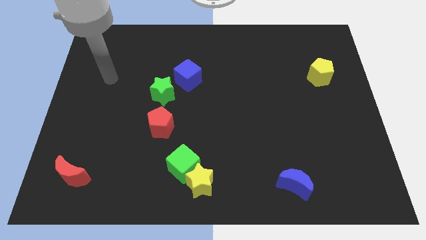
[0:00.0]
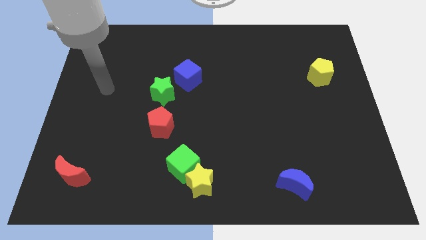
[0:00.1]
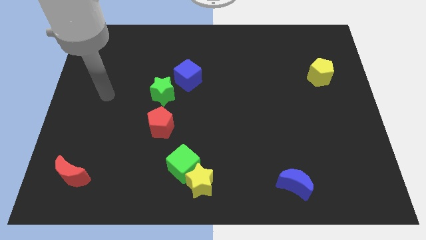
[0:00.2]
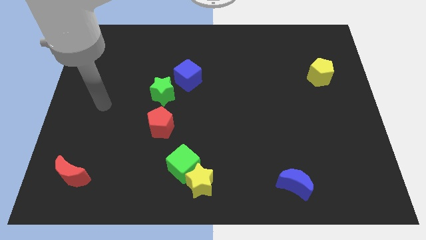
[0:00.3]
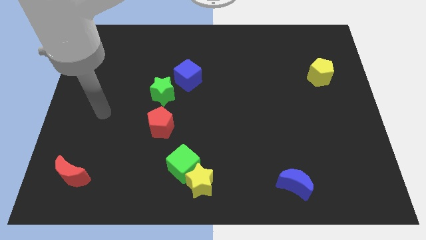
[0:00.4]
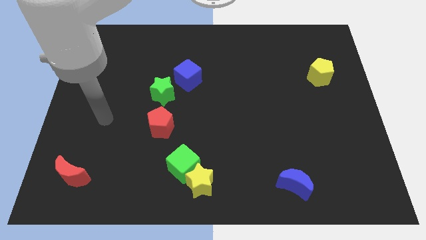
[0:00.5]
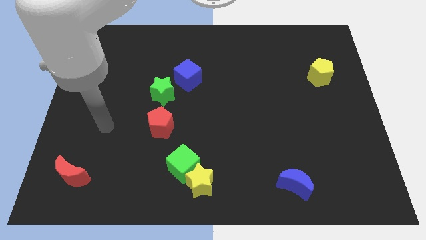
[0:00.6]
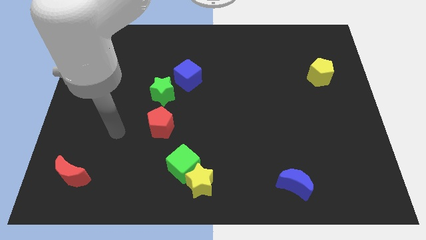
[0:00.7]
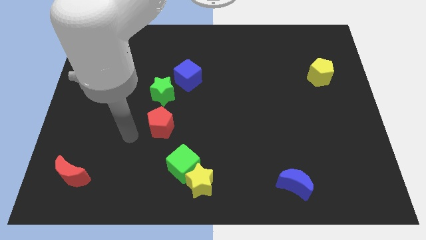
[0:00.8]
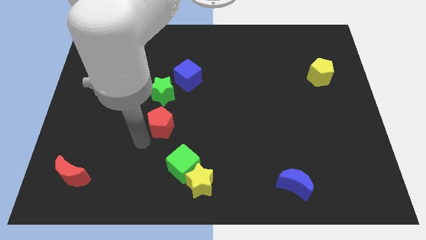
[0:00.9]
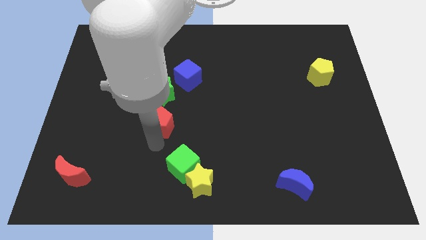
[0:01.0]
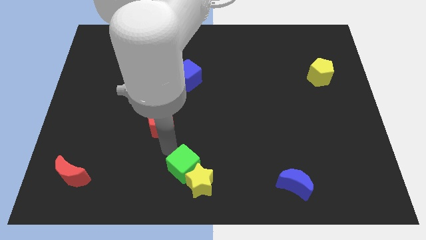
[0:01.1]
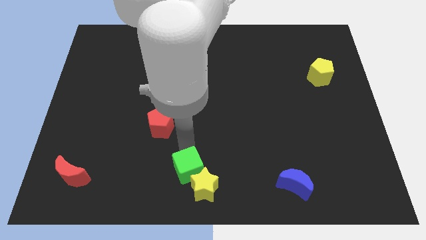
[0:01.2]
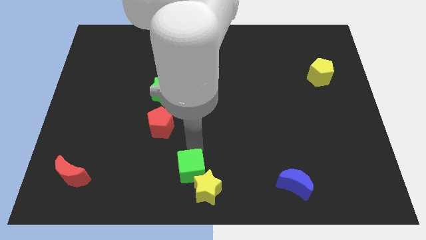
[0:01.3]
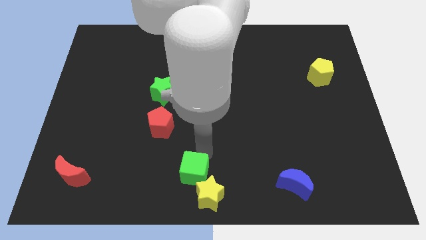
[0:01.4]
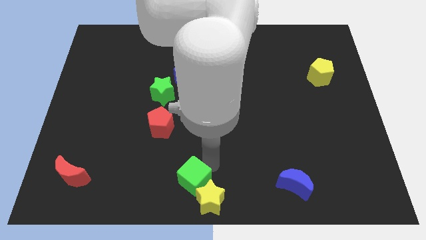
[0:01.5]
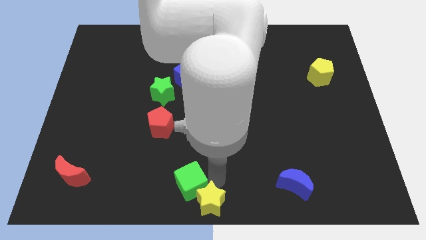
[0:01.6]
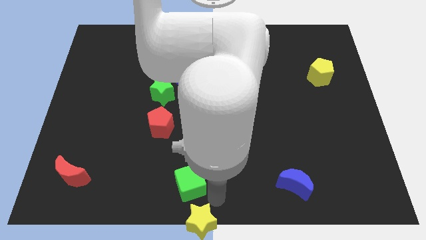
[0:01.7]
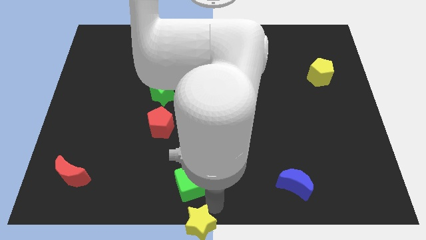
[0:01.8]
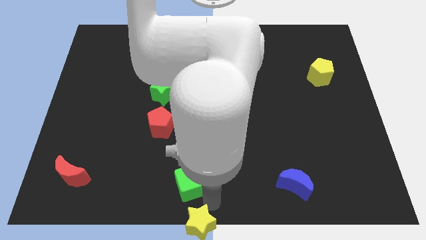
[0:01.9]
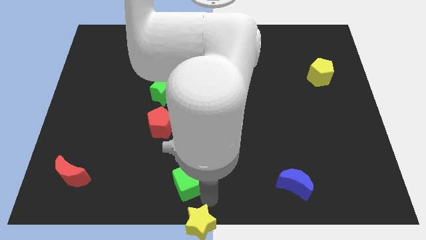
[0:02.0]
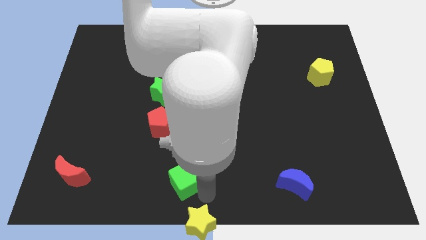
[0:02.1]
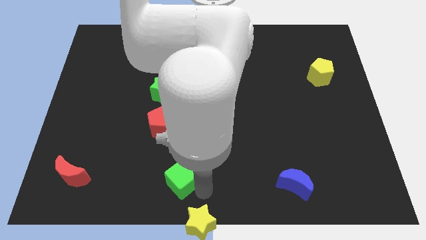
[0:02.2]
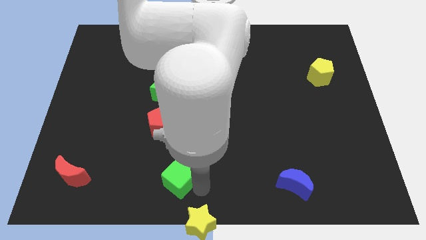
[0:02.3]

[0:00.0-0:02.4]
pull the green cube apart from the yellow star

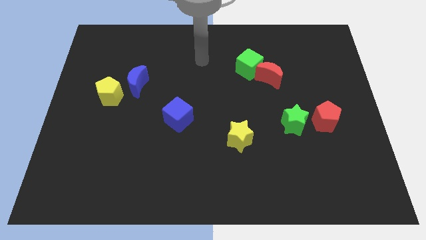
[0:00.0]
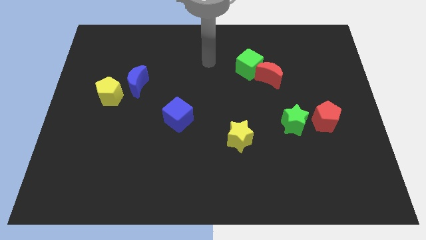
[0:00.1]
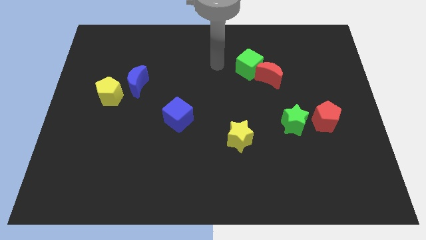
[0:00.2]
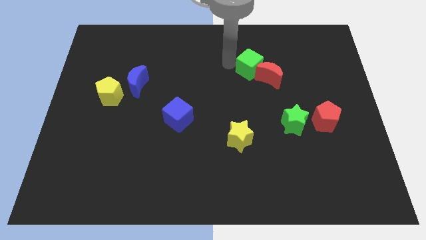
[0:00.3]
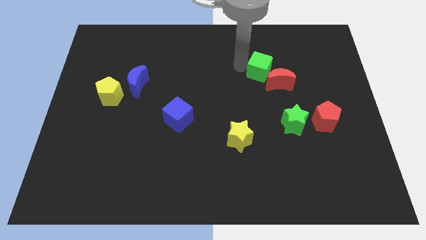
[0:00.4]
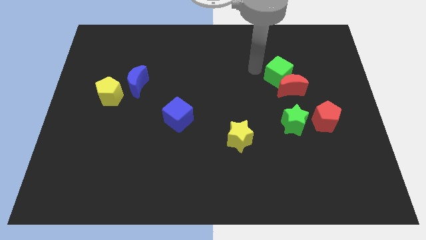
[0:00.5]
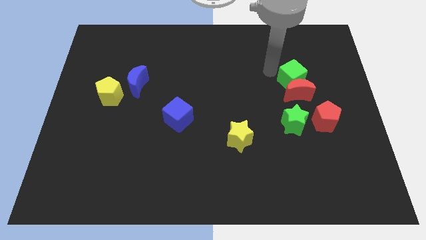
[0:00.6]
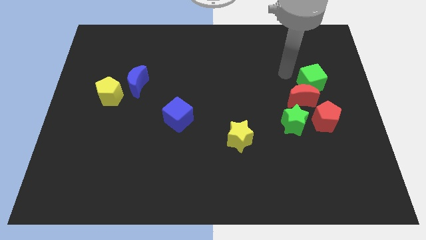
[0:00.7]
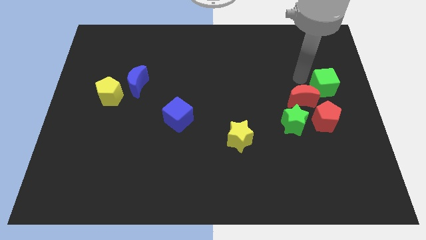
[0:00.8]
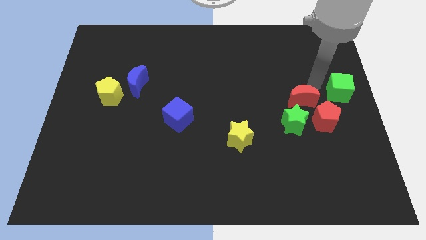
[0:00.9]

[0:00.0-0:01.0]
separate the red moon from the green cube

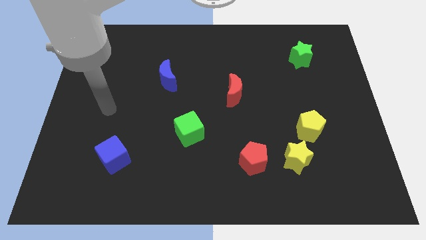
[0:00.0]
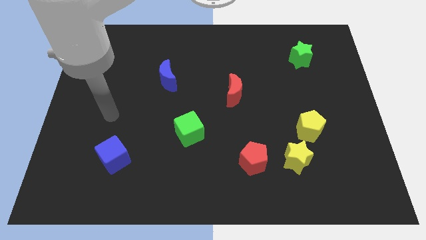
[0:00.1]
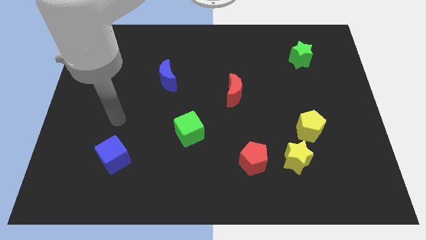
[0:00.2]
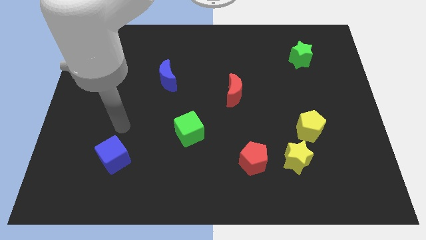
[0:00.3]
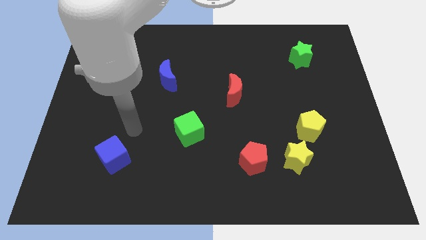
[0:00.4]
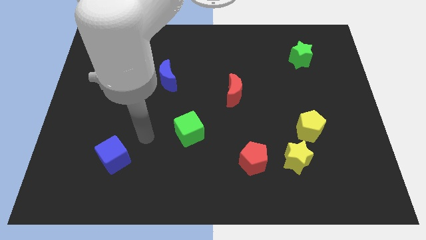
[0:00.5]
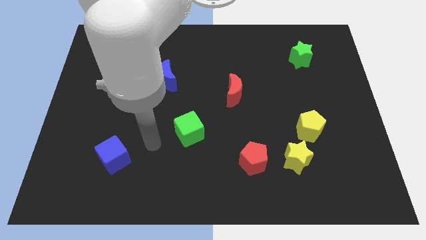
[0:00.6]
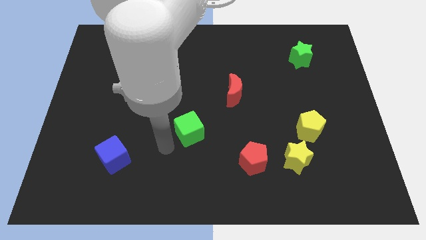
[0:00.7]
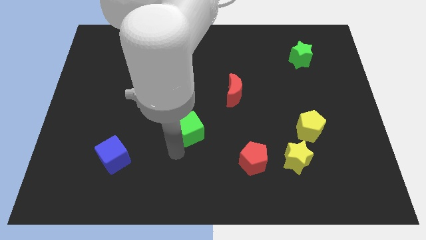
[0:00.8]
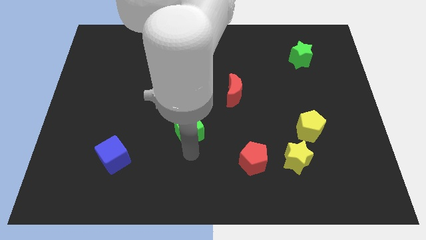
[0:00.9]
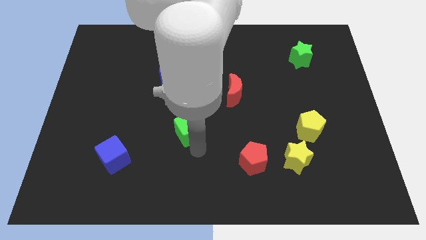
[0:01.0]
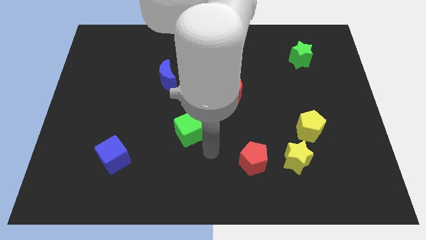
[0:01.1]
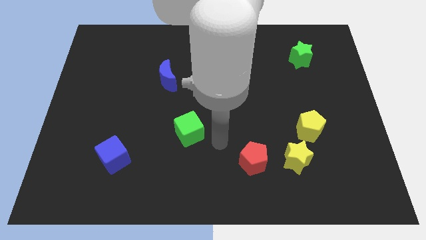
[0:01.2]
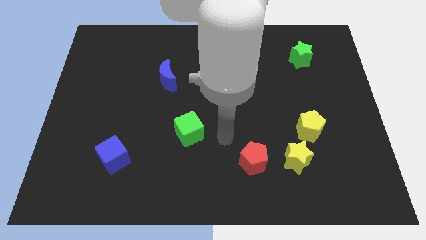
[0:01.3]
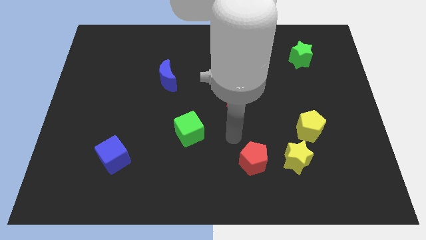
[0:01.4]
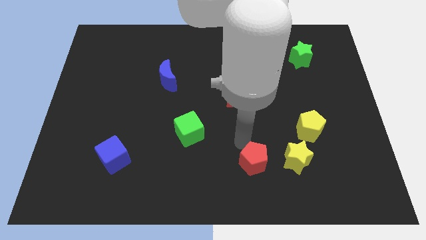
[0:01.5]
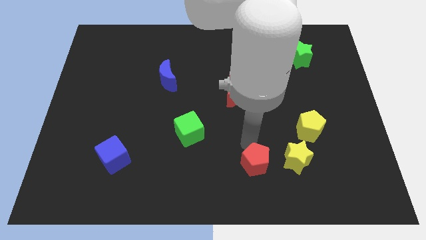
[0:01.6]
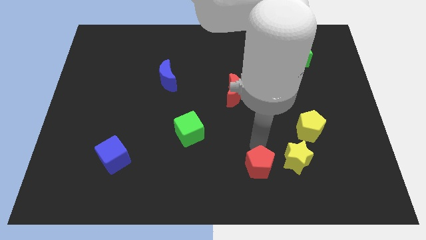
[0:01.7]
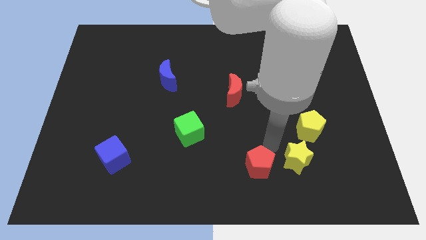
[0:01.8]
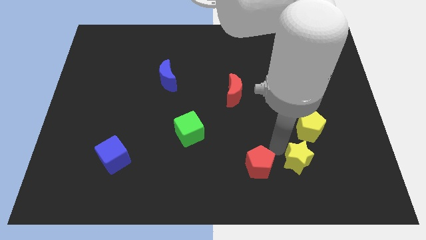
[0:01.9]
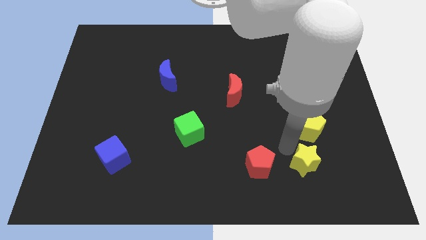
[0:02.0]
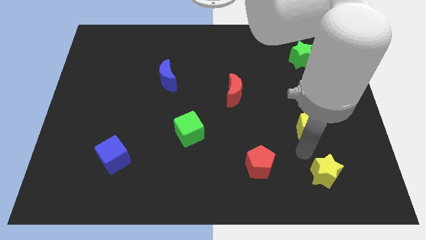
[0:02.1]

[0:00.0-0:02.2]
separate the yellow pentagon from the yellow star

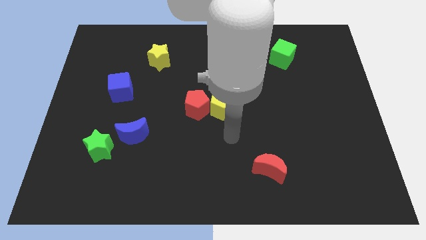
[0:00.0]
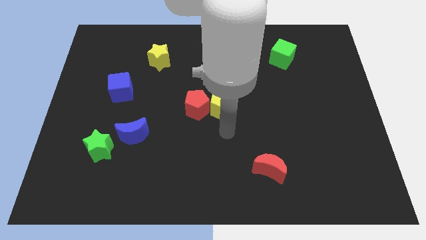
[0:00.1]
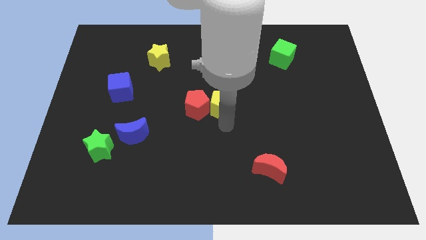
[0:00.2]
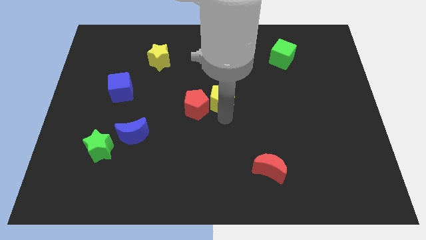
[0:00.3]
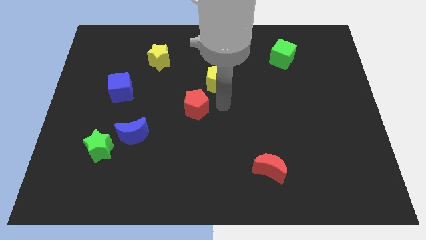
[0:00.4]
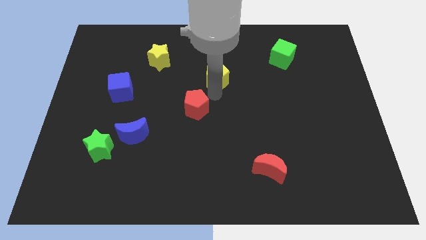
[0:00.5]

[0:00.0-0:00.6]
move the red pentagon away from the yellow pentagon

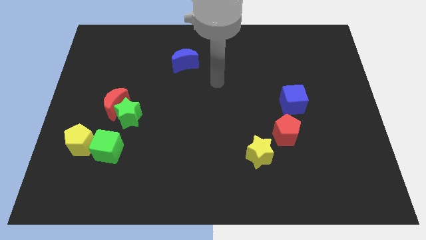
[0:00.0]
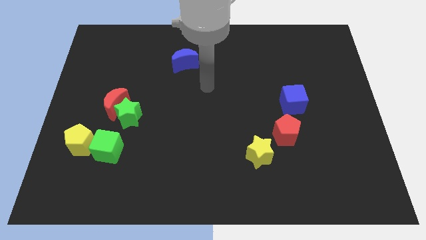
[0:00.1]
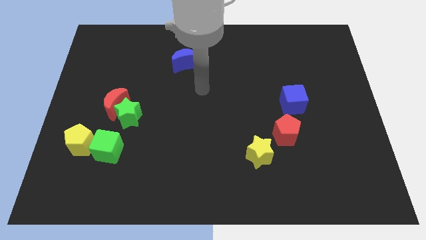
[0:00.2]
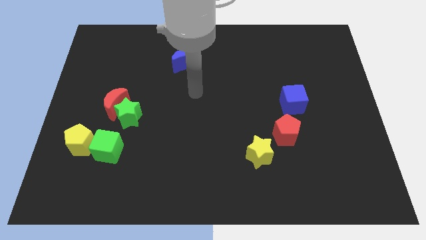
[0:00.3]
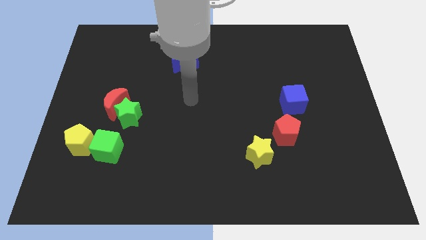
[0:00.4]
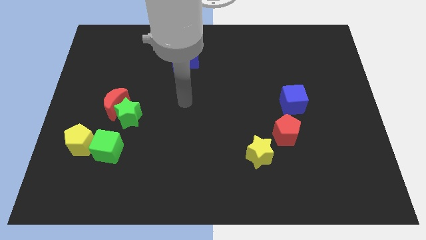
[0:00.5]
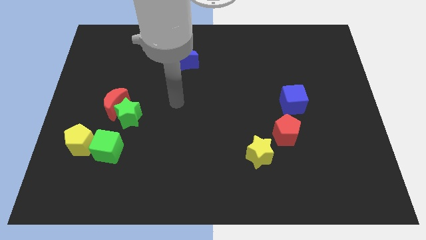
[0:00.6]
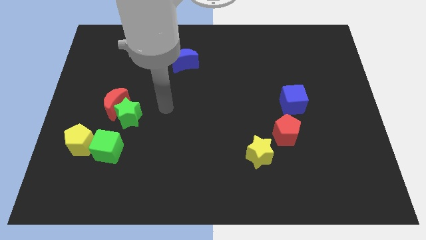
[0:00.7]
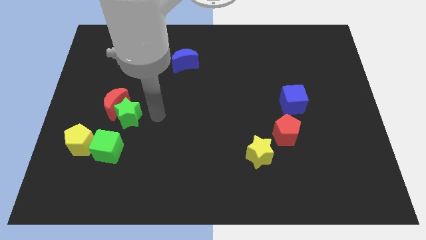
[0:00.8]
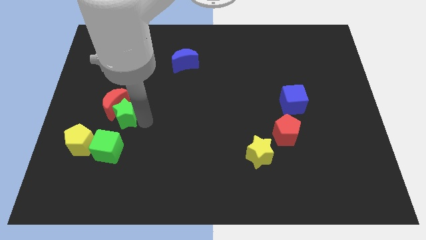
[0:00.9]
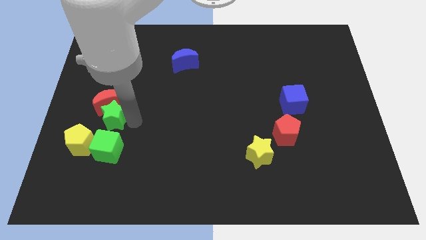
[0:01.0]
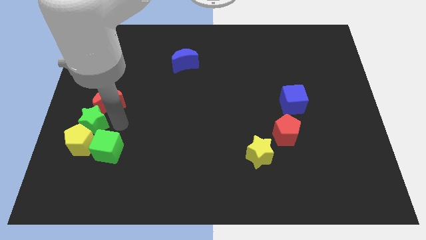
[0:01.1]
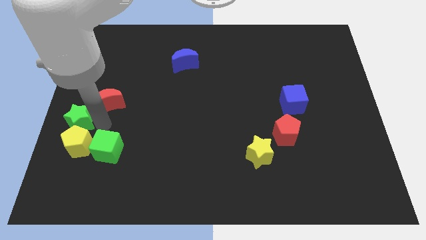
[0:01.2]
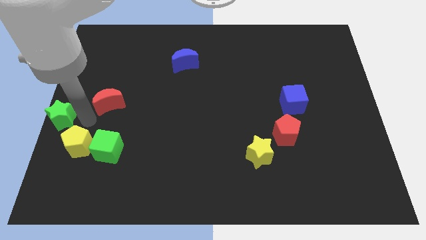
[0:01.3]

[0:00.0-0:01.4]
separate the red moon from the green star

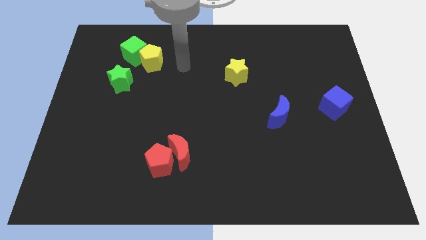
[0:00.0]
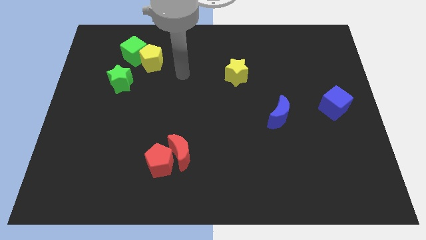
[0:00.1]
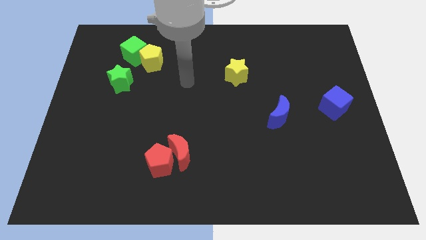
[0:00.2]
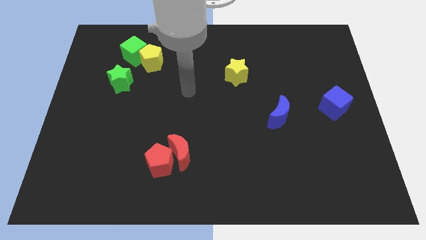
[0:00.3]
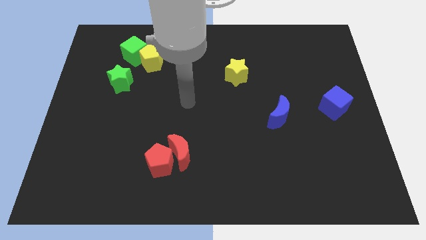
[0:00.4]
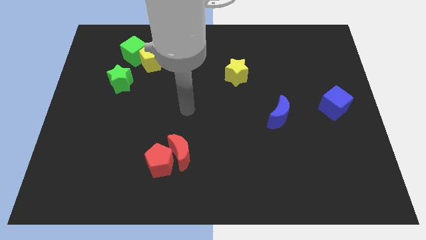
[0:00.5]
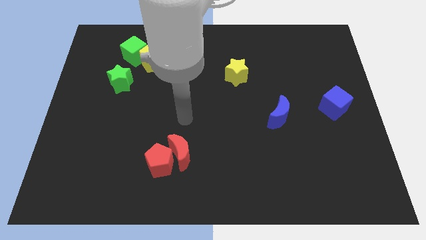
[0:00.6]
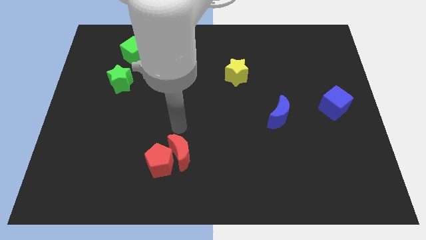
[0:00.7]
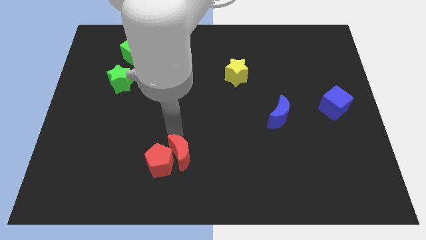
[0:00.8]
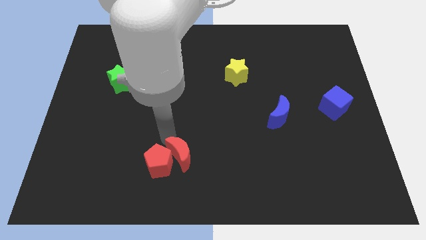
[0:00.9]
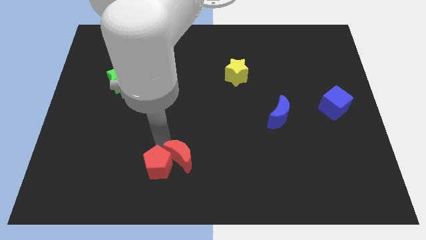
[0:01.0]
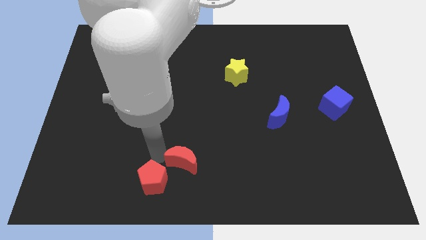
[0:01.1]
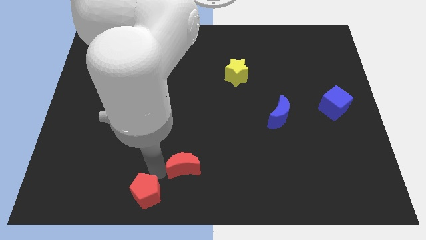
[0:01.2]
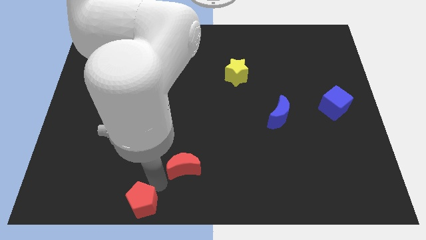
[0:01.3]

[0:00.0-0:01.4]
separate the red moon from the red pentagon

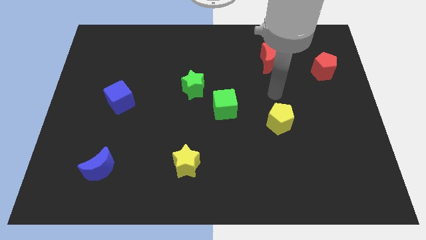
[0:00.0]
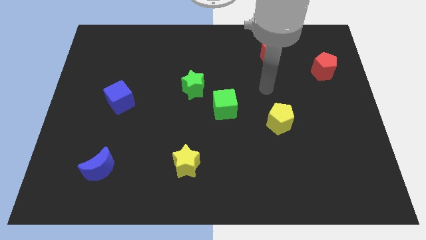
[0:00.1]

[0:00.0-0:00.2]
pull the green cube apart from the green star
